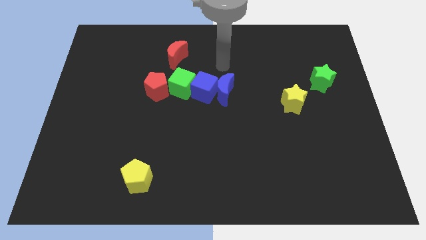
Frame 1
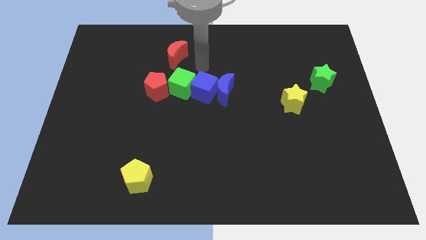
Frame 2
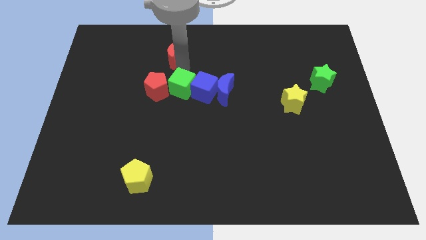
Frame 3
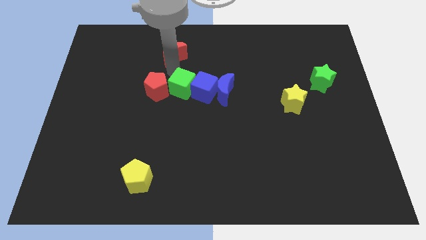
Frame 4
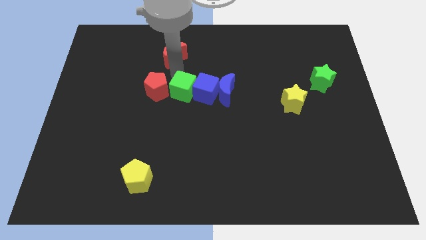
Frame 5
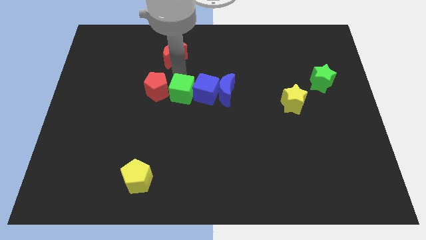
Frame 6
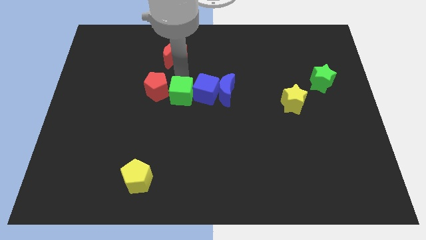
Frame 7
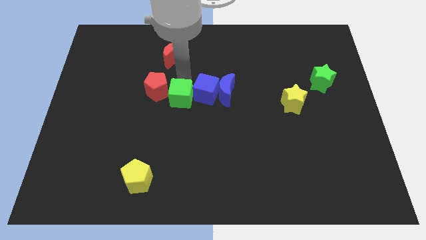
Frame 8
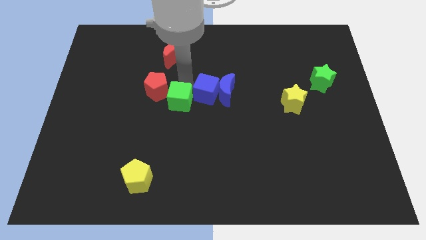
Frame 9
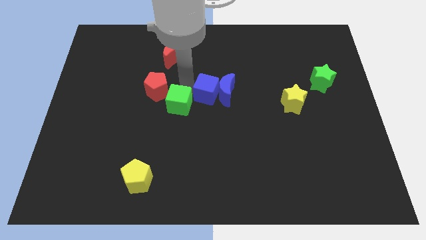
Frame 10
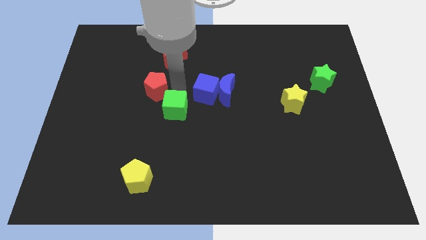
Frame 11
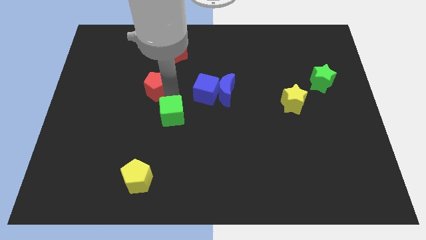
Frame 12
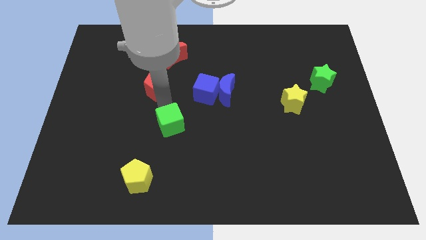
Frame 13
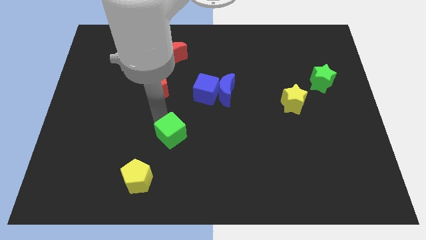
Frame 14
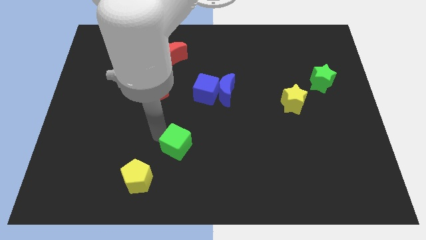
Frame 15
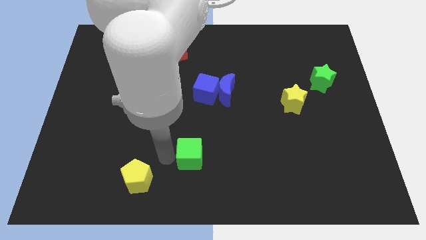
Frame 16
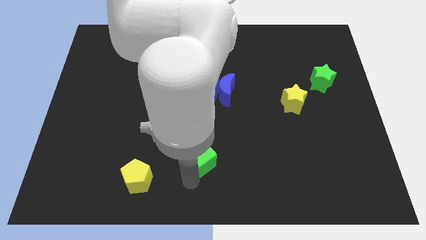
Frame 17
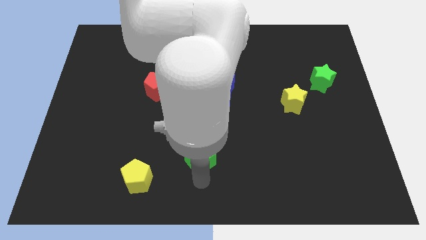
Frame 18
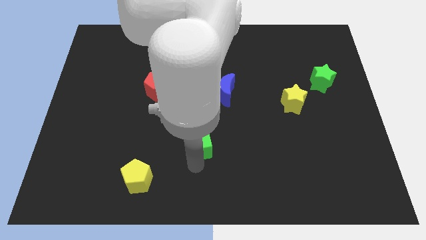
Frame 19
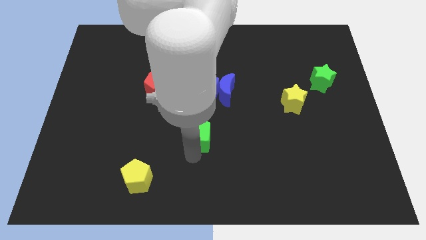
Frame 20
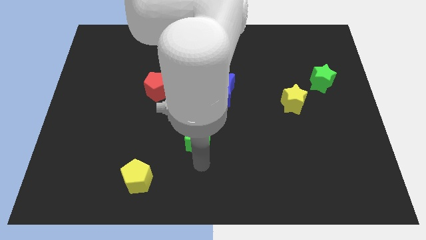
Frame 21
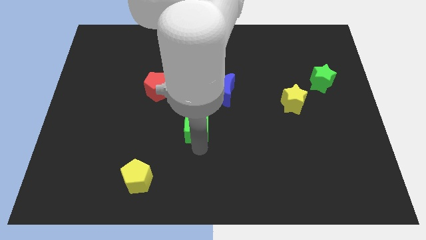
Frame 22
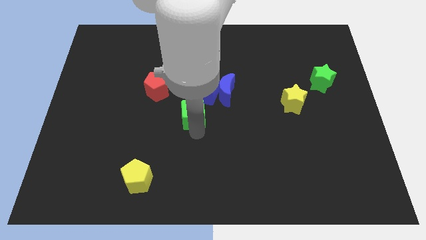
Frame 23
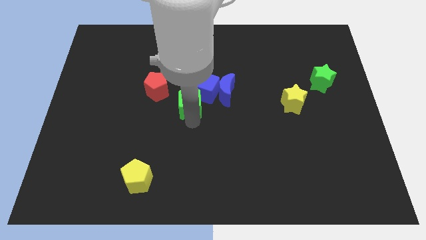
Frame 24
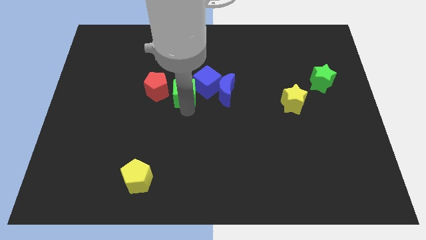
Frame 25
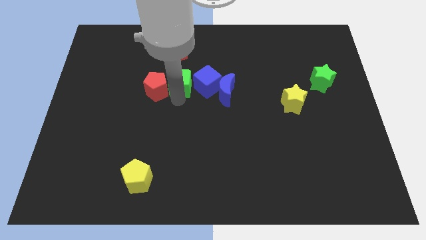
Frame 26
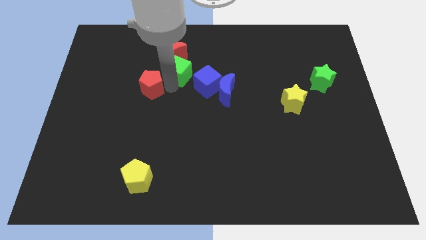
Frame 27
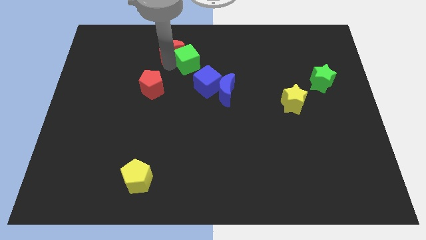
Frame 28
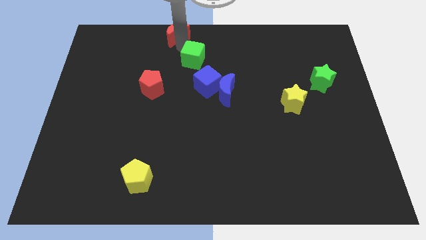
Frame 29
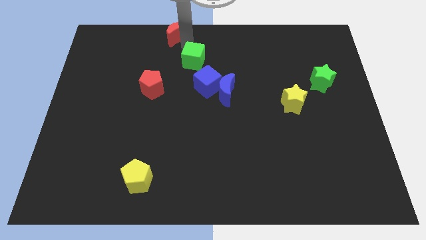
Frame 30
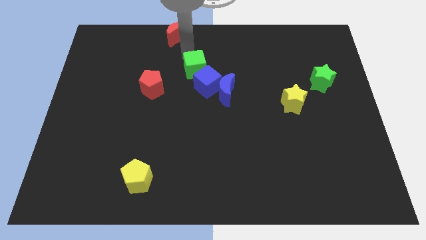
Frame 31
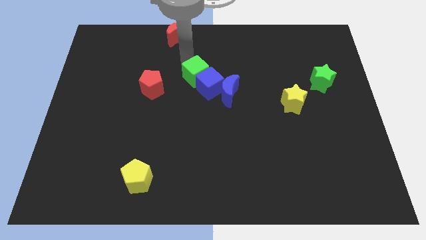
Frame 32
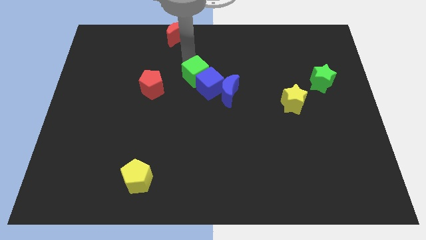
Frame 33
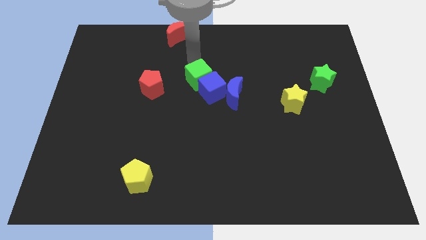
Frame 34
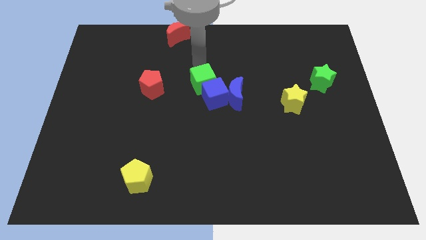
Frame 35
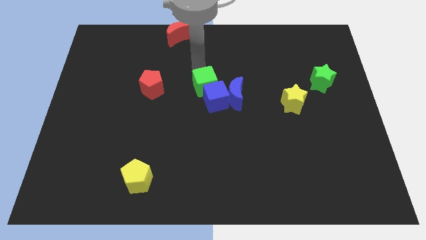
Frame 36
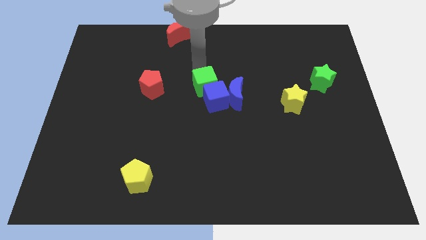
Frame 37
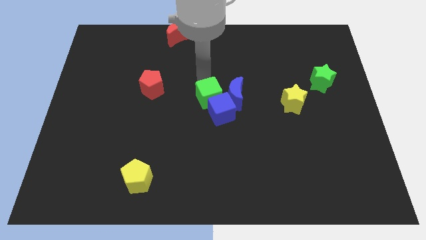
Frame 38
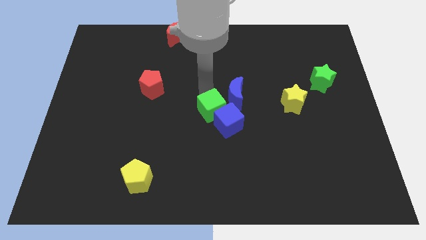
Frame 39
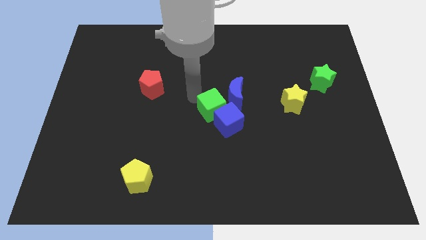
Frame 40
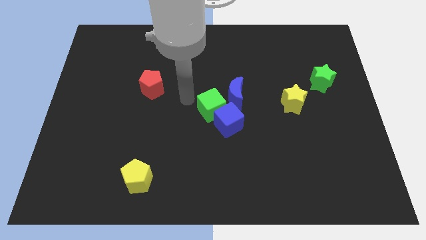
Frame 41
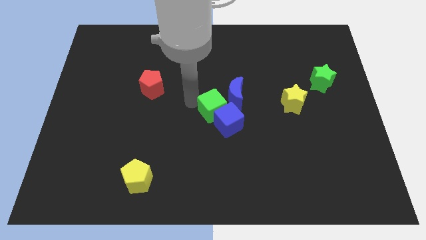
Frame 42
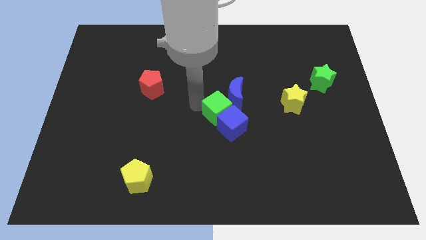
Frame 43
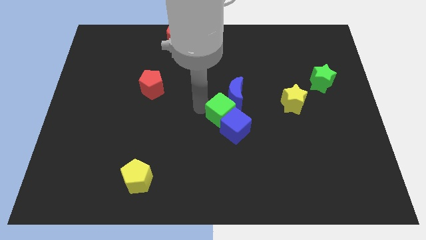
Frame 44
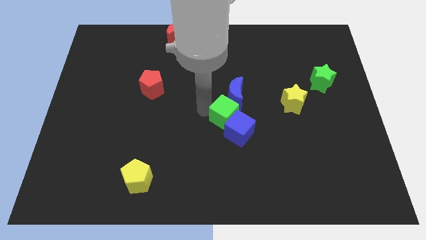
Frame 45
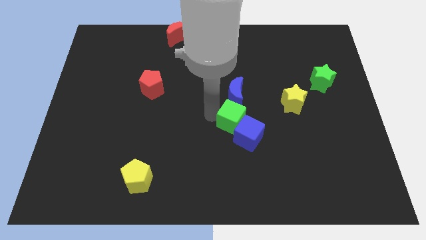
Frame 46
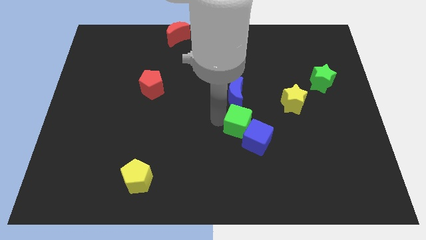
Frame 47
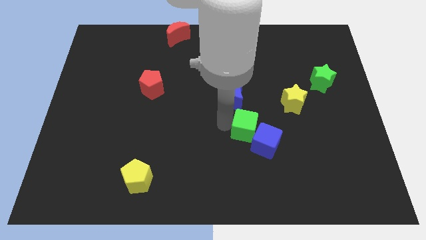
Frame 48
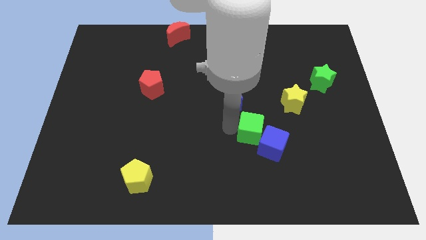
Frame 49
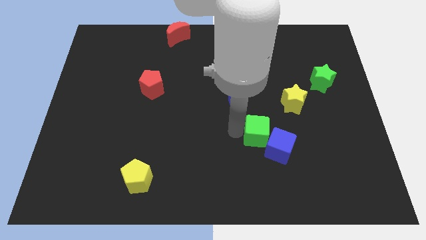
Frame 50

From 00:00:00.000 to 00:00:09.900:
push the green cube to the bottom left side of the yellow star

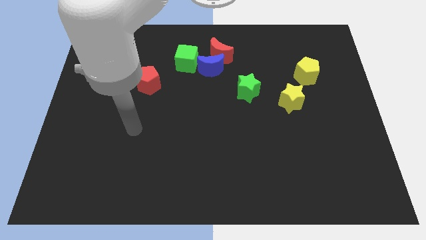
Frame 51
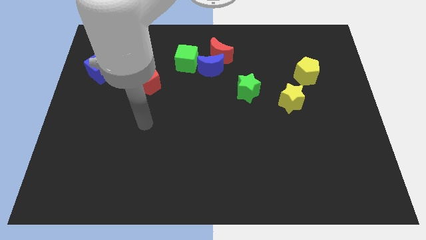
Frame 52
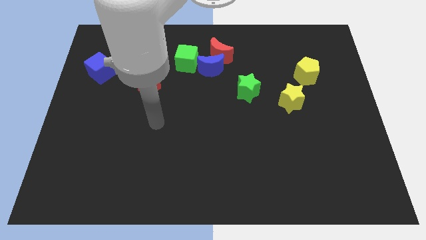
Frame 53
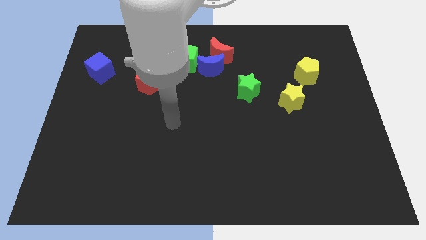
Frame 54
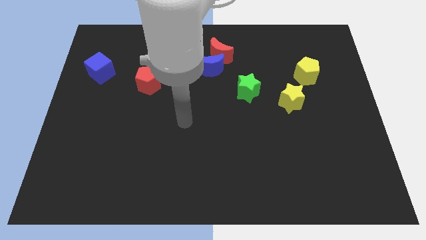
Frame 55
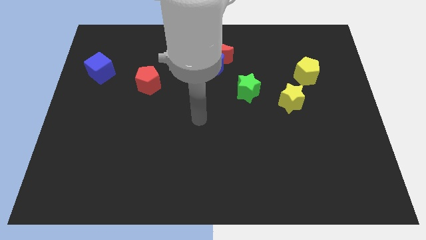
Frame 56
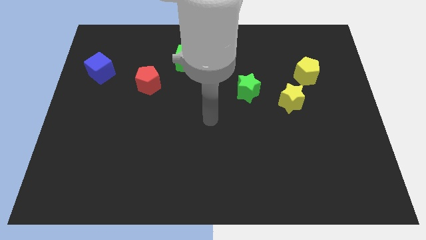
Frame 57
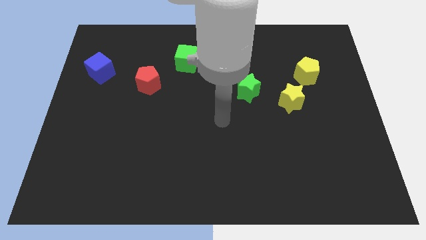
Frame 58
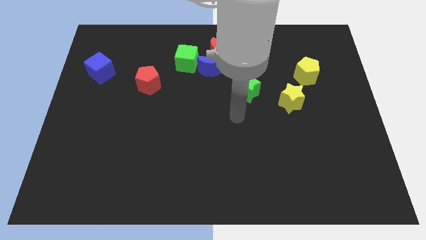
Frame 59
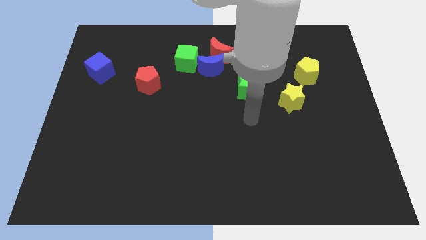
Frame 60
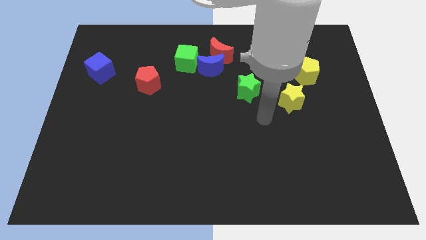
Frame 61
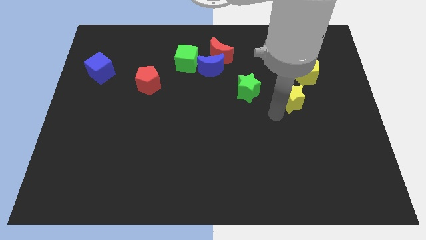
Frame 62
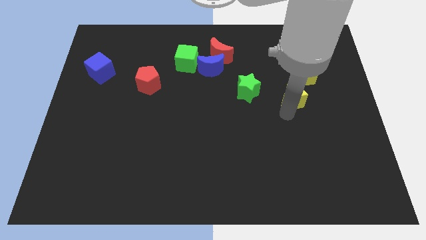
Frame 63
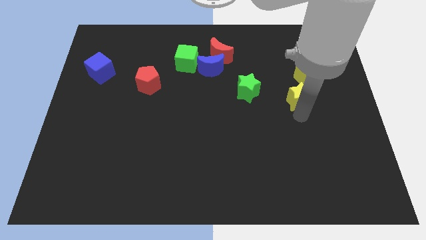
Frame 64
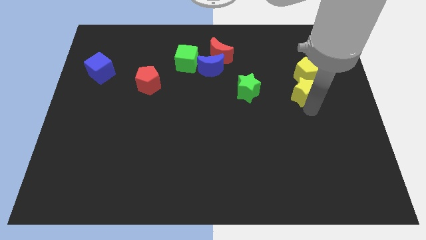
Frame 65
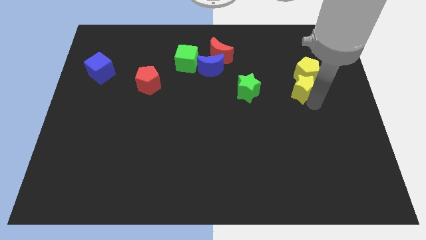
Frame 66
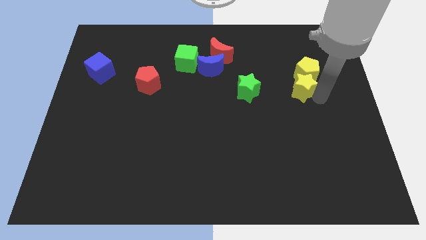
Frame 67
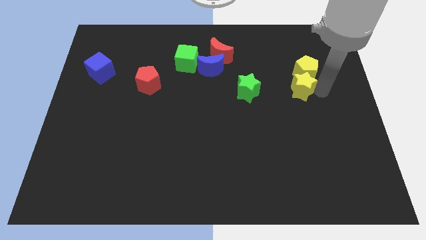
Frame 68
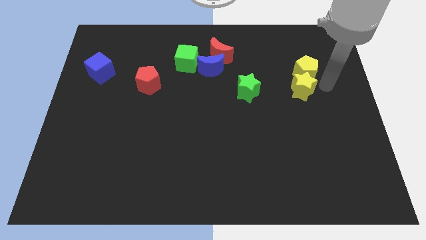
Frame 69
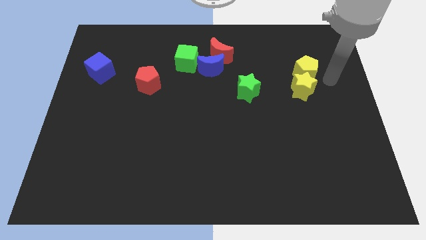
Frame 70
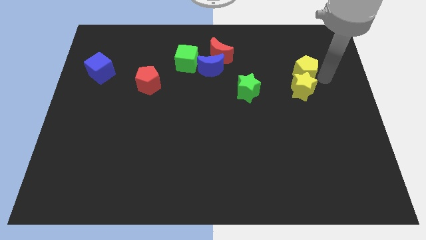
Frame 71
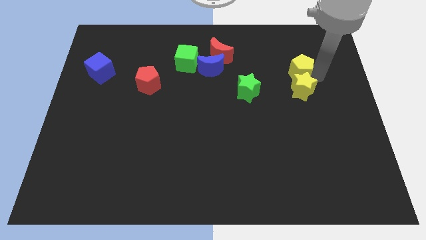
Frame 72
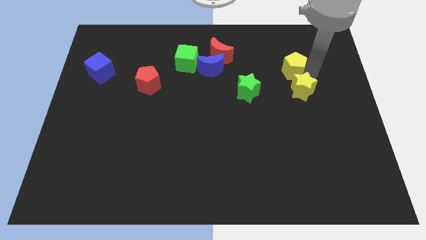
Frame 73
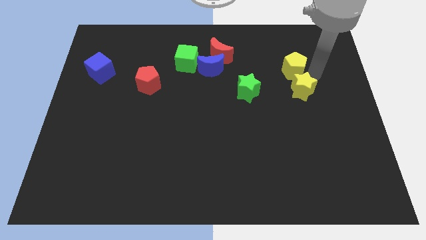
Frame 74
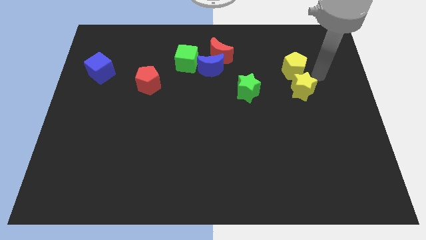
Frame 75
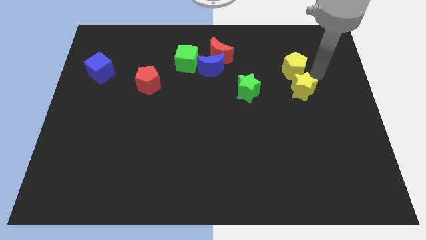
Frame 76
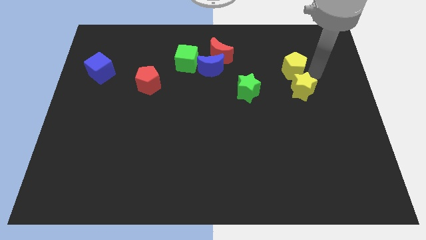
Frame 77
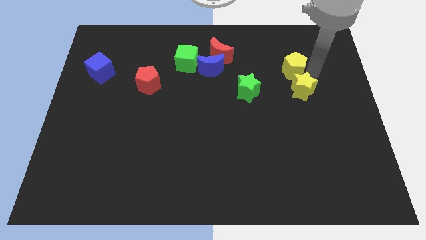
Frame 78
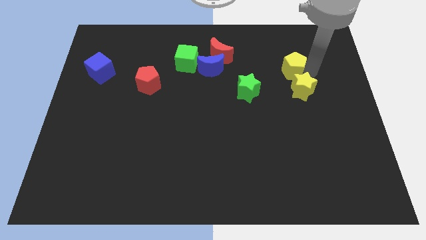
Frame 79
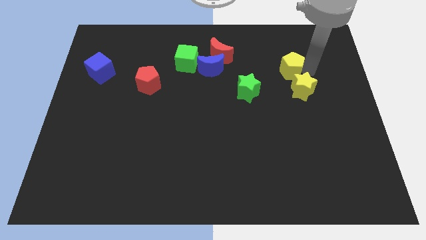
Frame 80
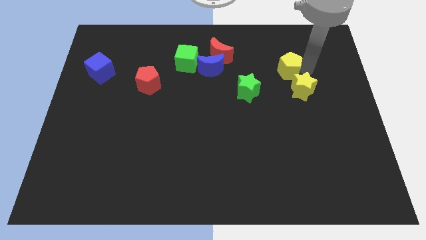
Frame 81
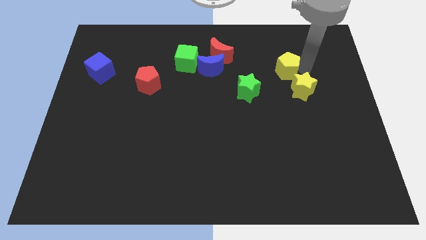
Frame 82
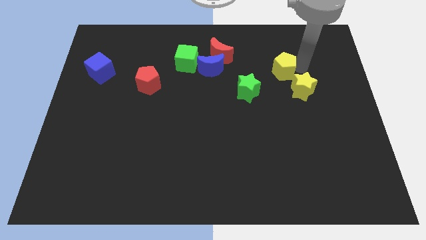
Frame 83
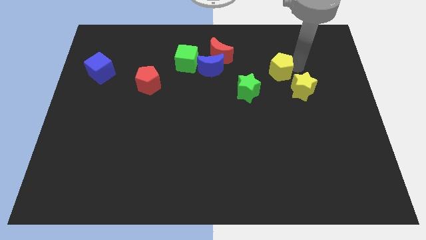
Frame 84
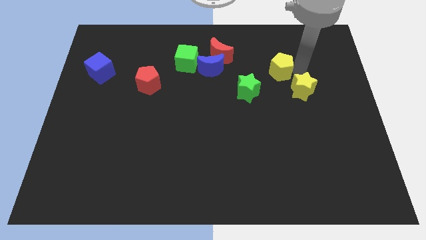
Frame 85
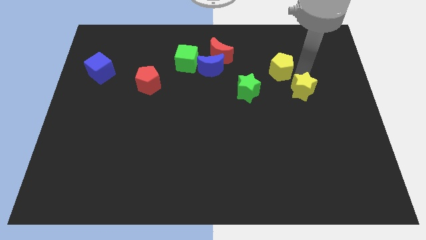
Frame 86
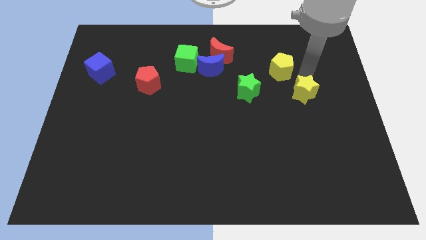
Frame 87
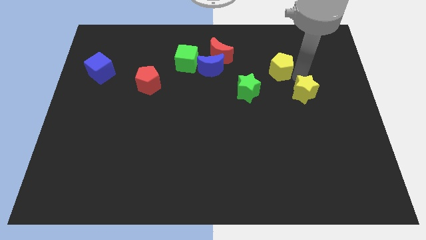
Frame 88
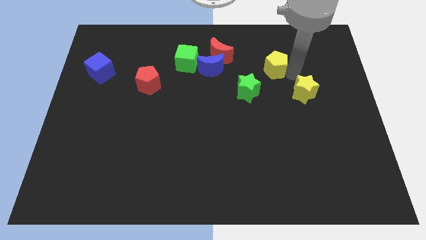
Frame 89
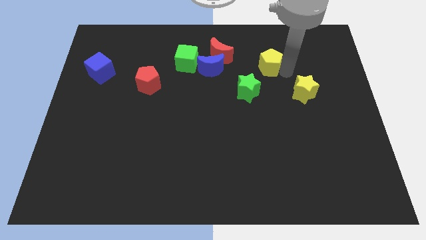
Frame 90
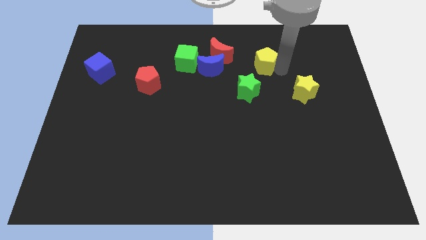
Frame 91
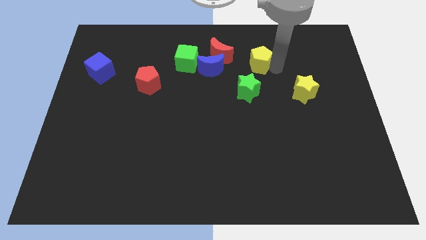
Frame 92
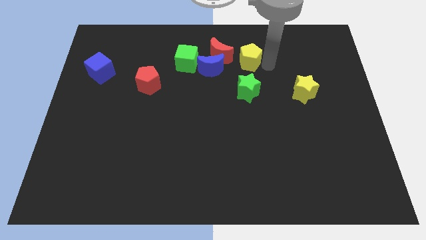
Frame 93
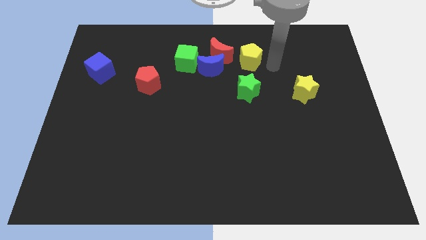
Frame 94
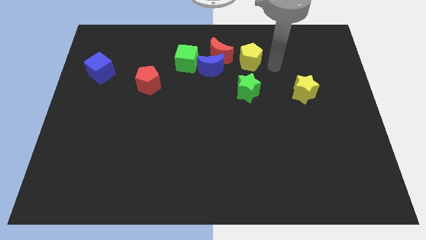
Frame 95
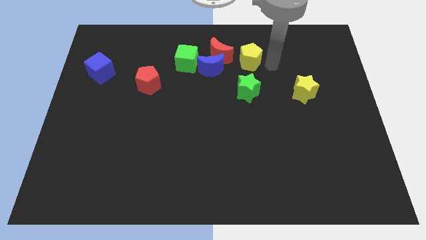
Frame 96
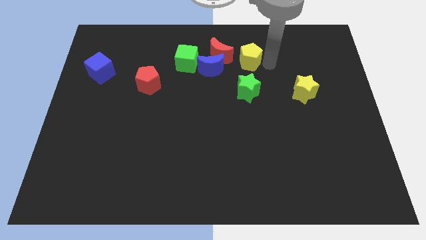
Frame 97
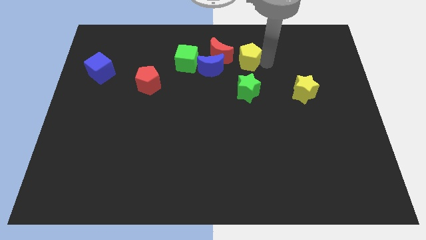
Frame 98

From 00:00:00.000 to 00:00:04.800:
slide the yellow pentagon to the top right side of the blue moon
